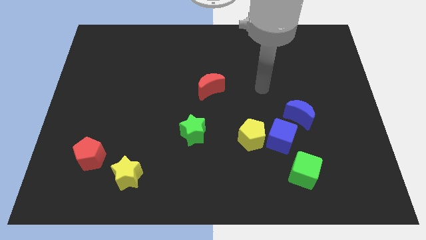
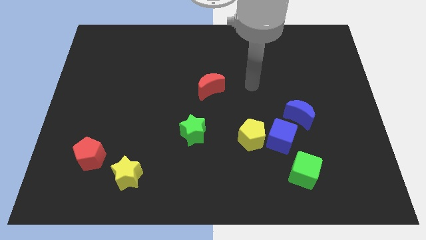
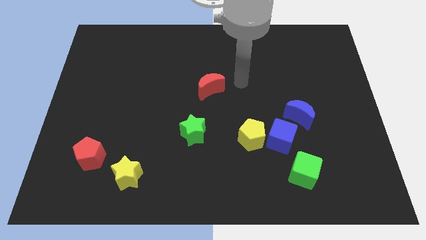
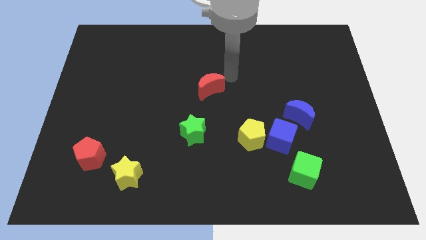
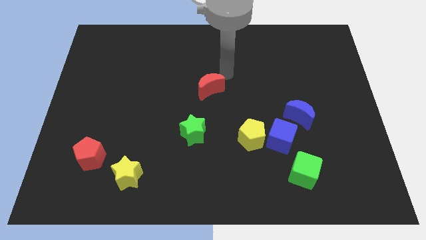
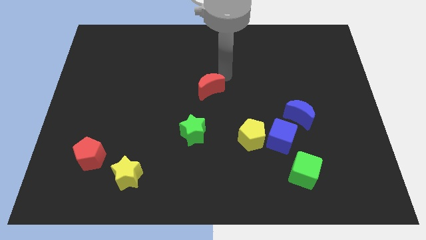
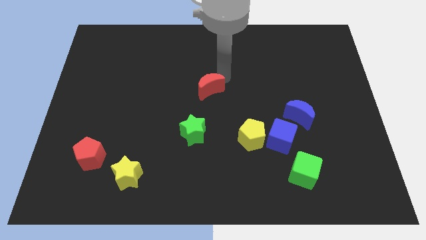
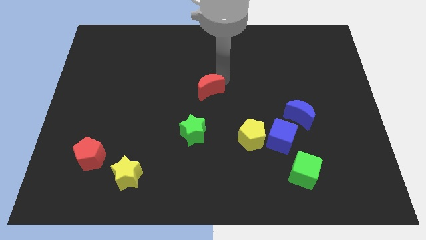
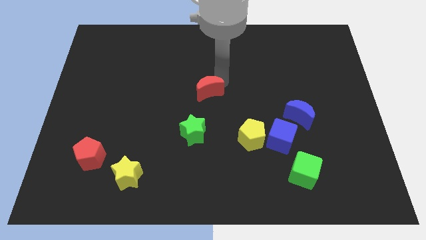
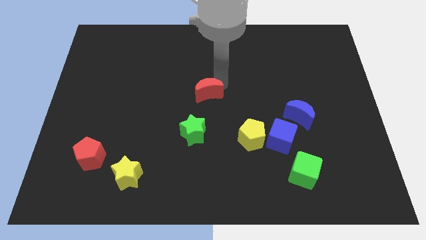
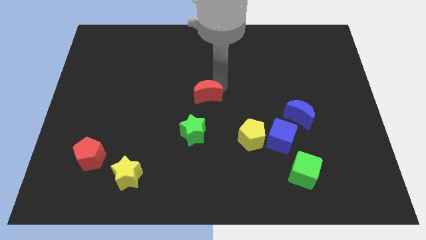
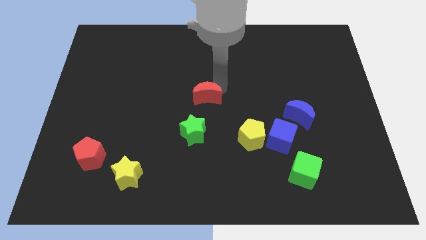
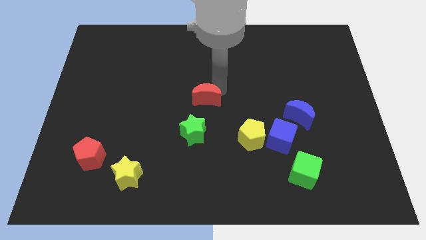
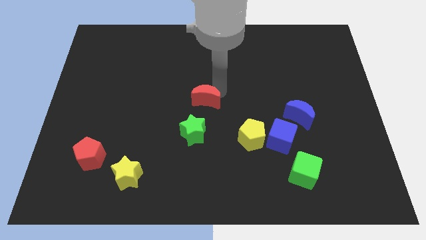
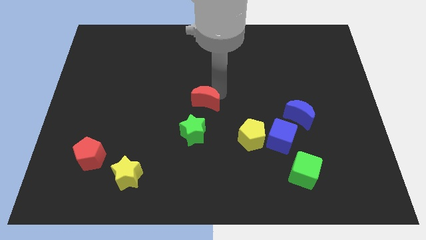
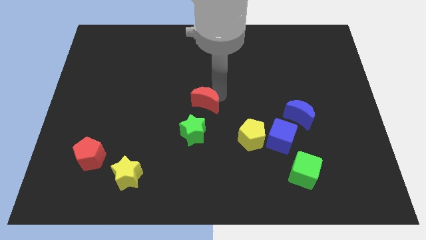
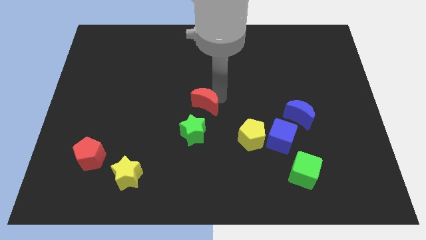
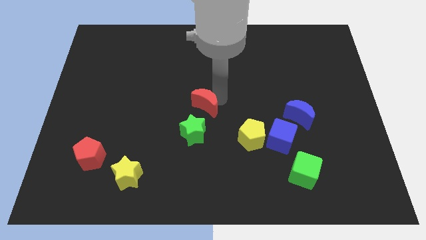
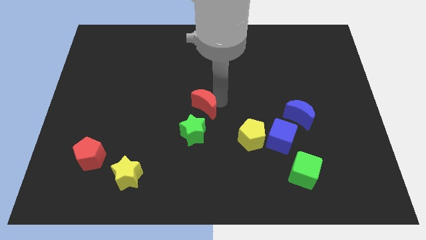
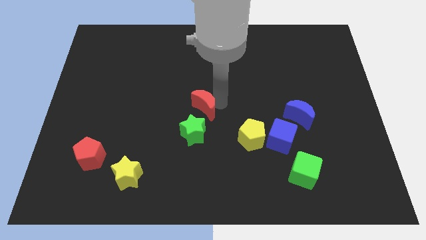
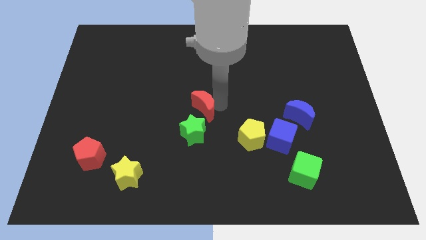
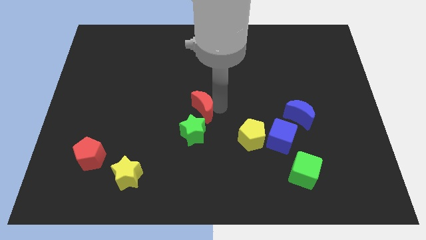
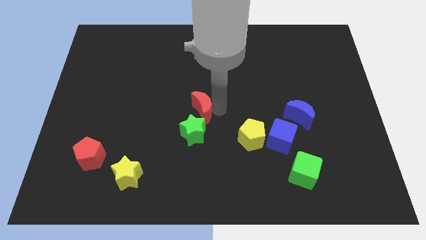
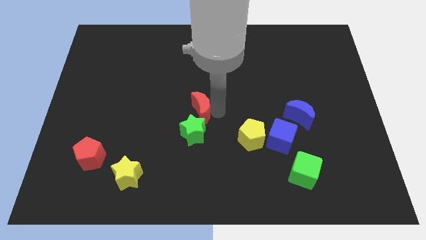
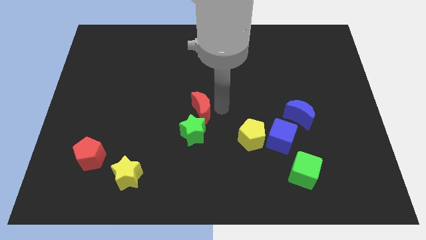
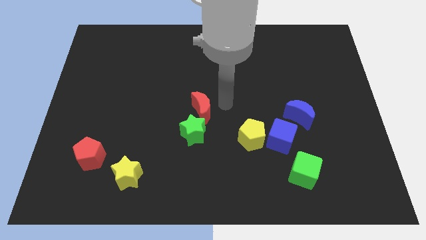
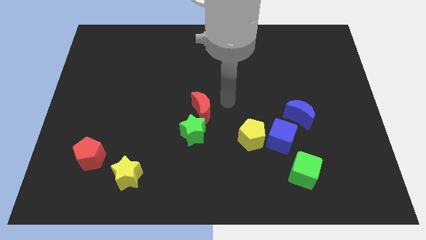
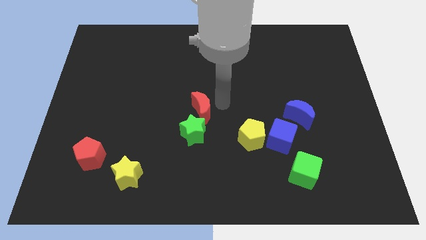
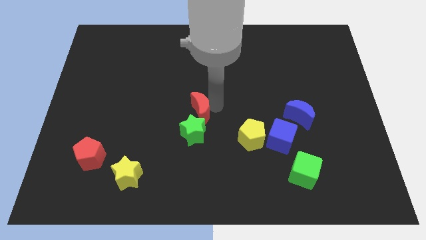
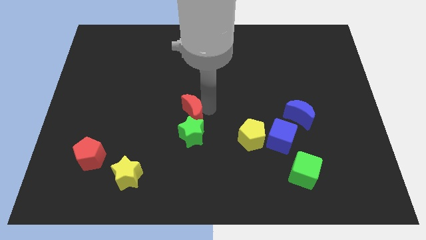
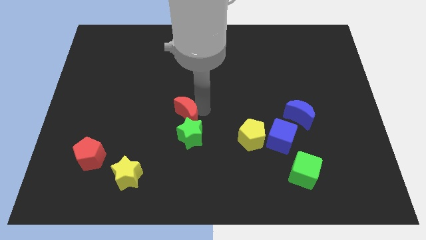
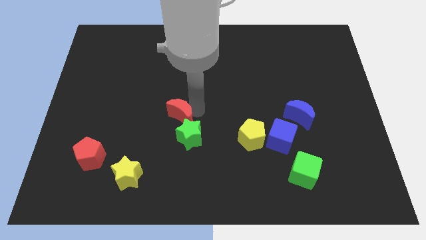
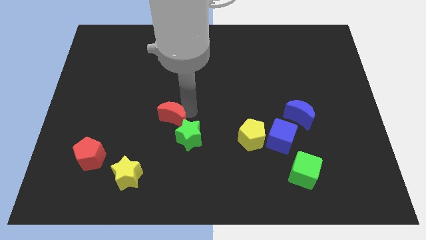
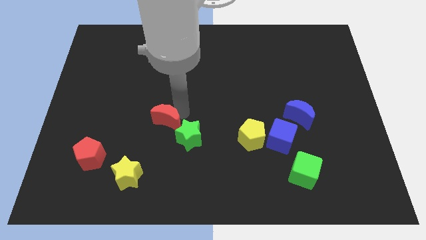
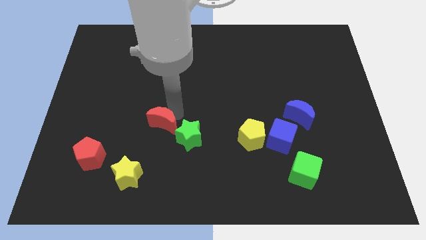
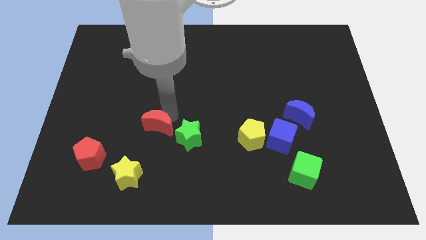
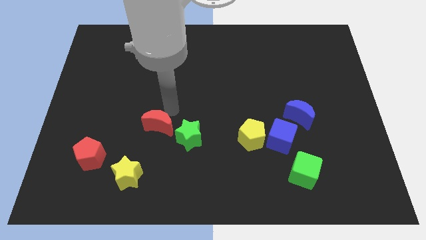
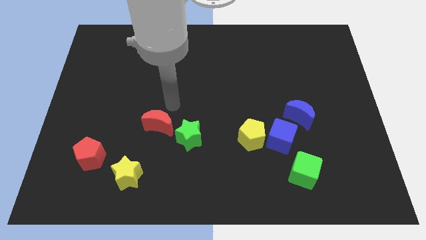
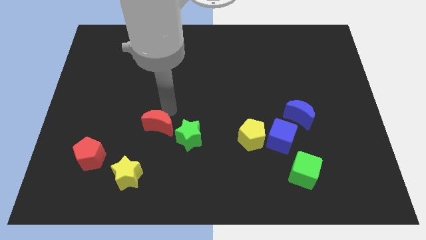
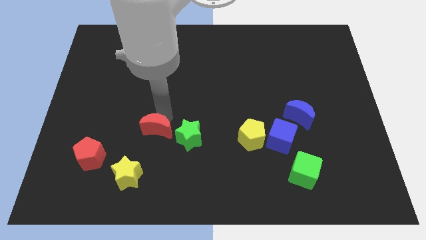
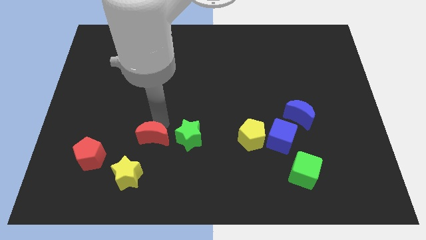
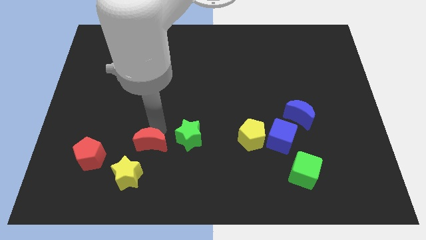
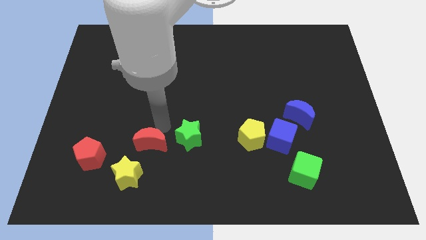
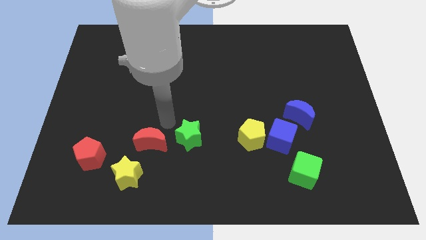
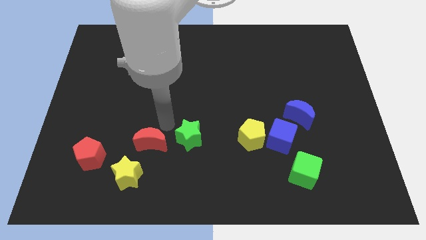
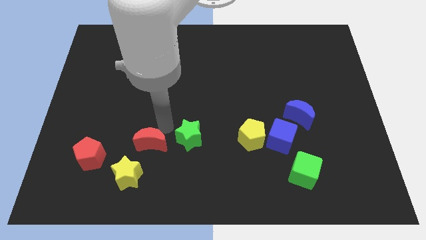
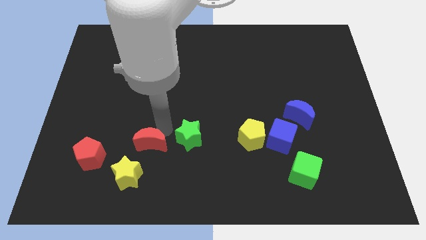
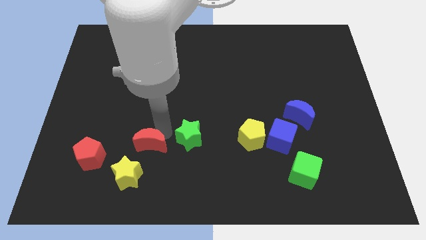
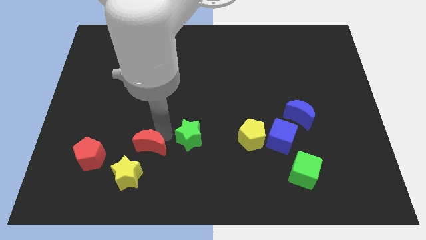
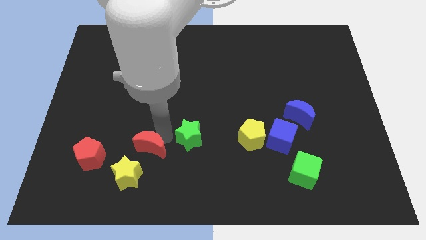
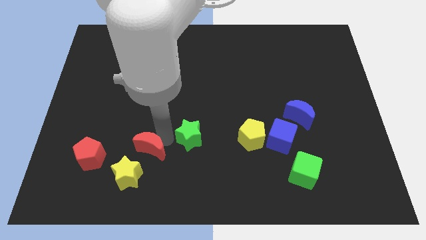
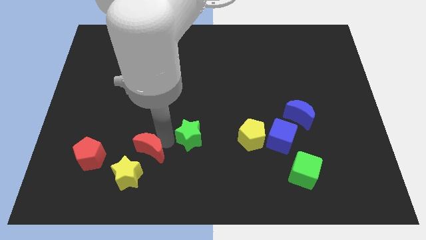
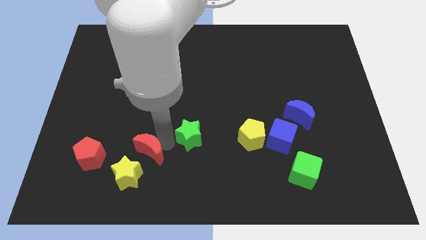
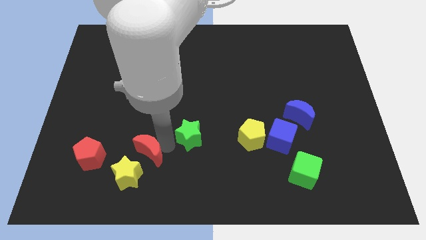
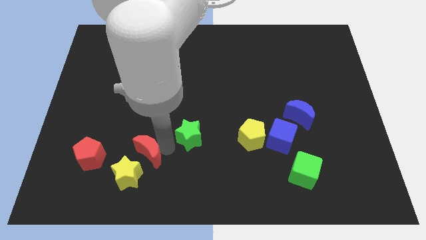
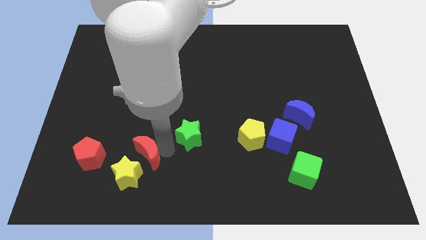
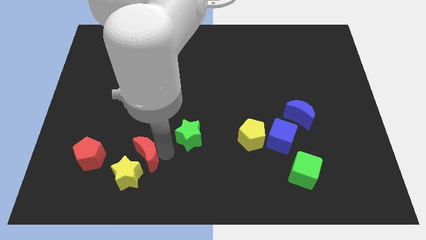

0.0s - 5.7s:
move the red moon towards the yellow star

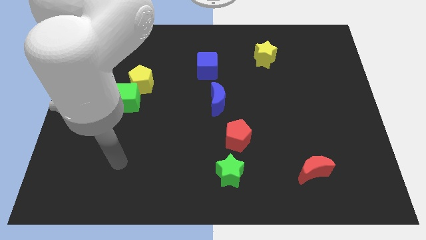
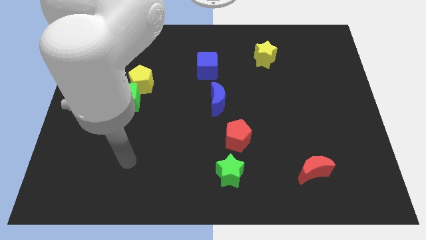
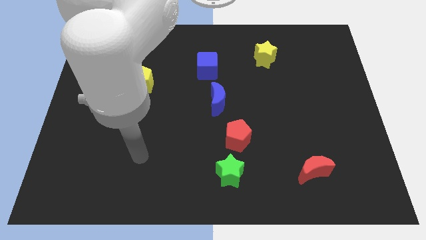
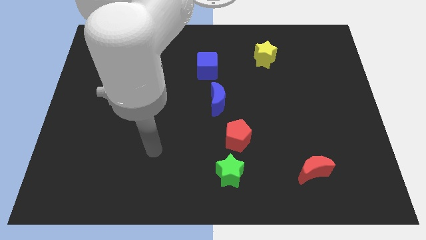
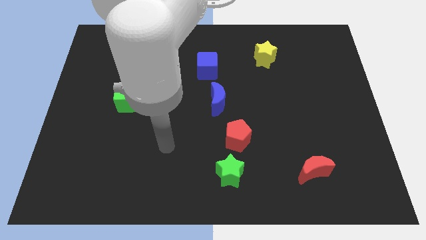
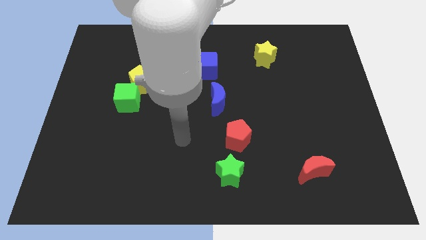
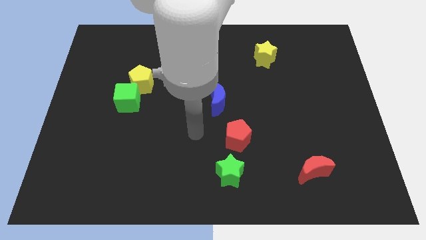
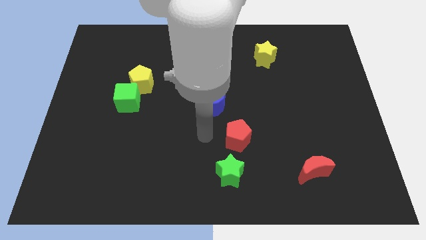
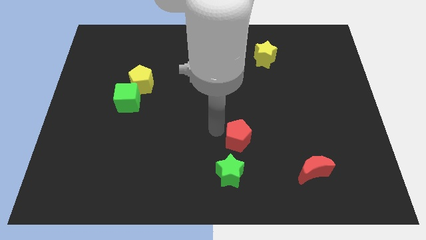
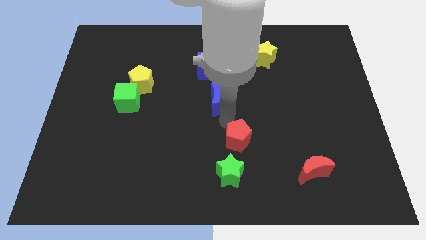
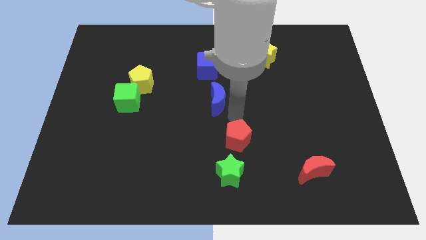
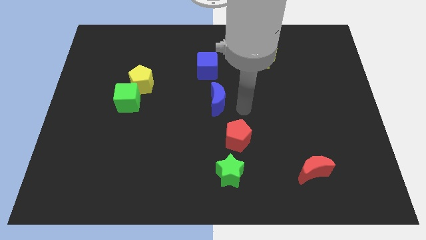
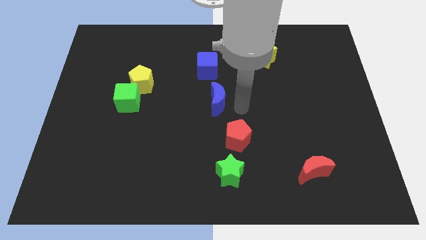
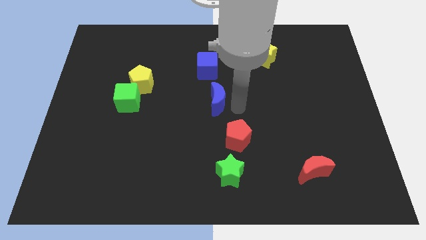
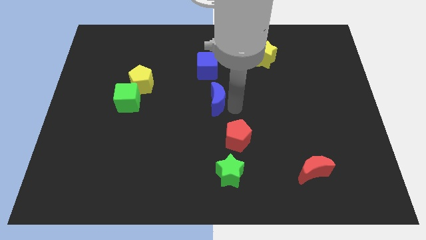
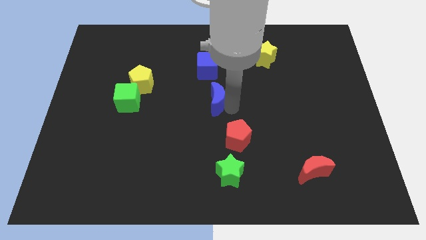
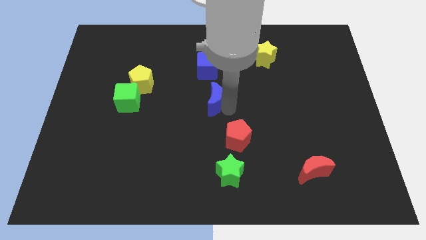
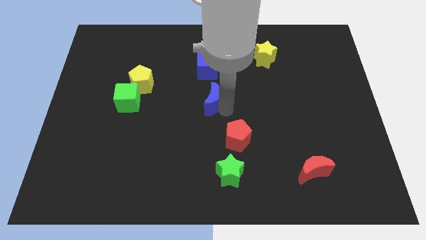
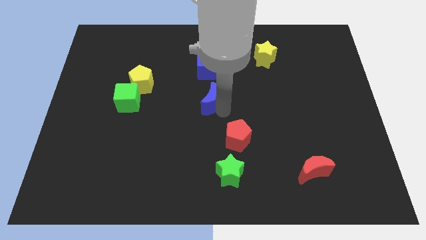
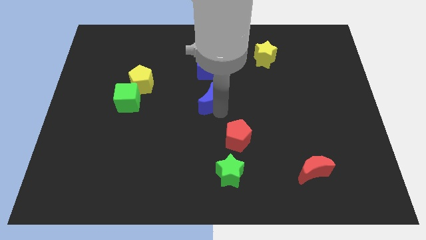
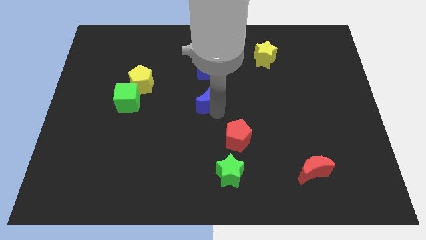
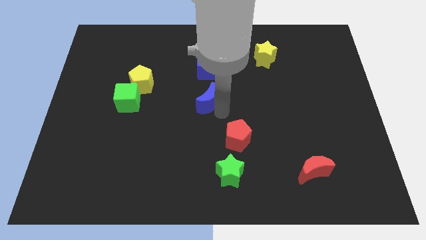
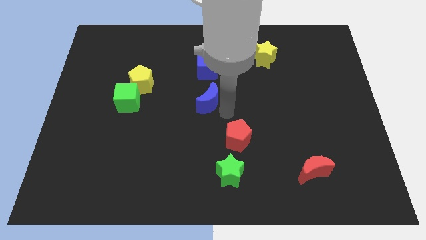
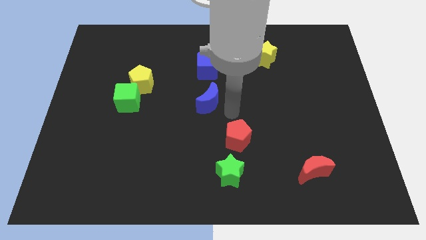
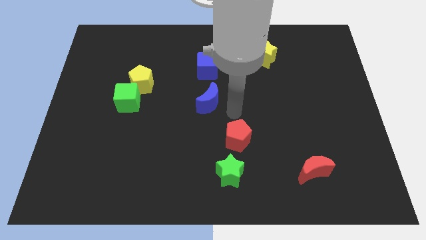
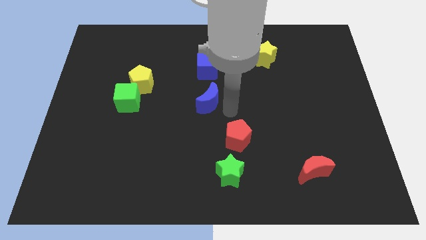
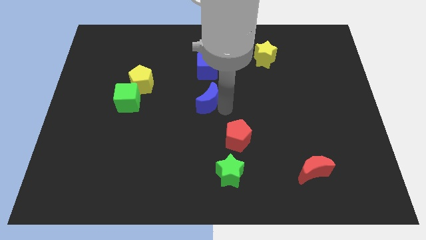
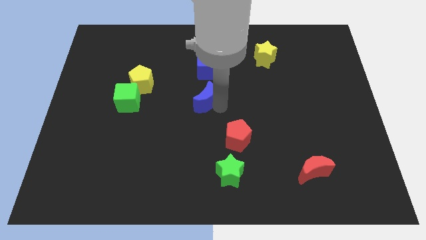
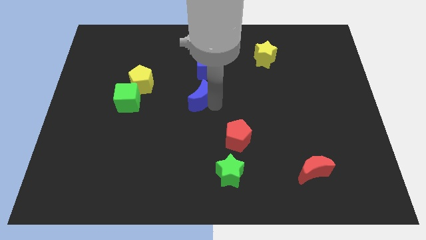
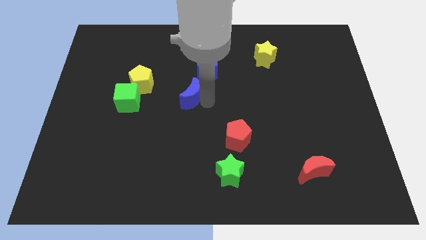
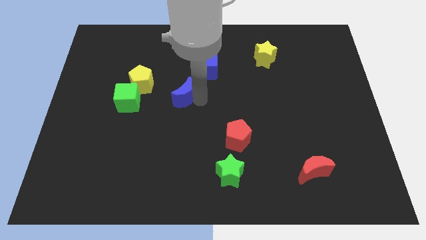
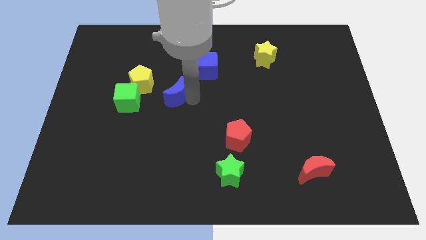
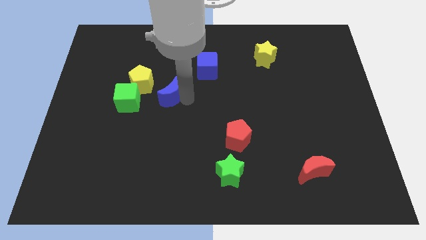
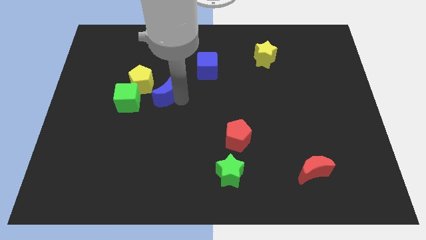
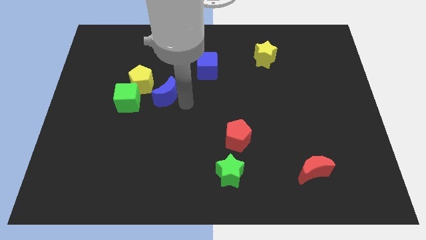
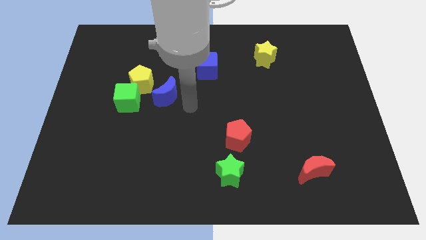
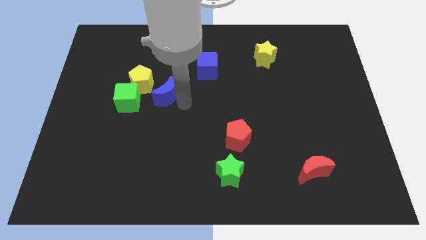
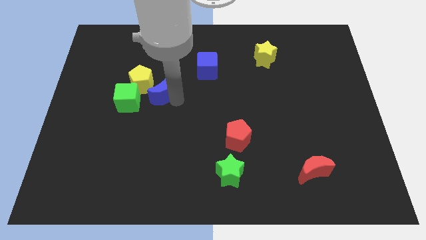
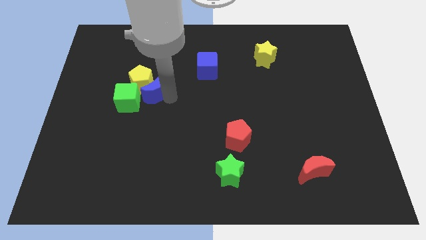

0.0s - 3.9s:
push the blue moon close to the yellow pentagon
